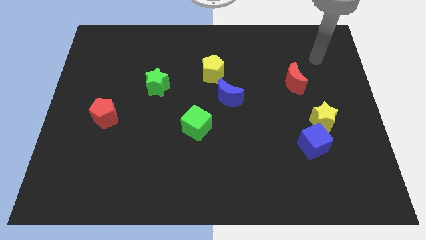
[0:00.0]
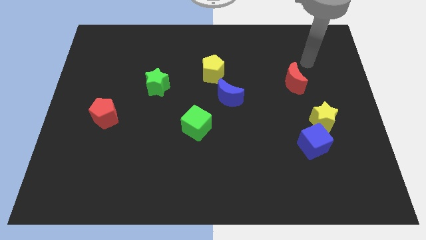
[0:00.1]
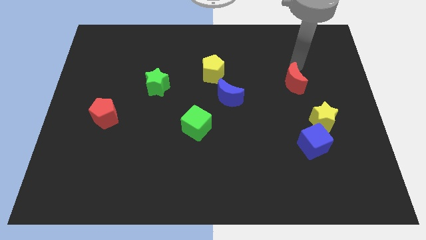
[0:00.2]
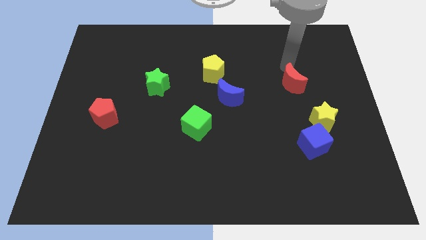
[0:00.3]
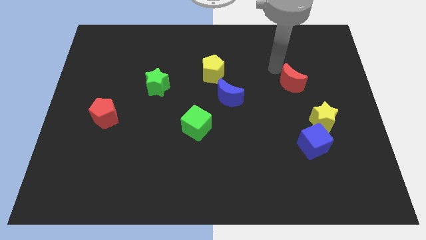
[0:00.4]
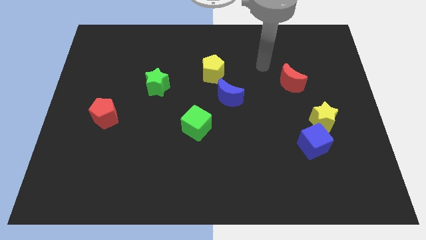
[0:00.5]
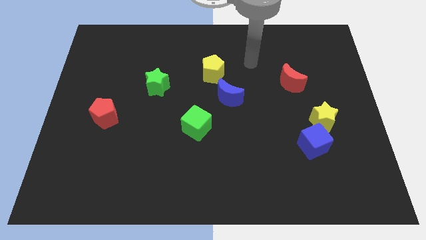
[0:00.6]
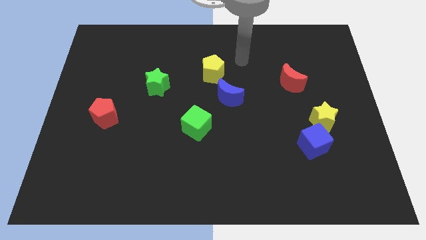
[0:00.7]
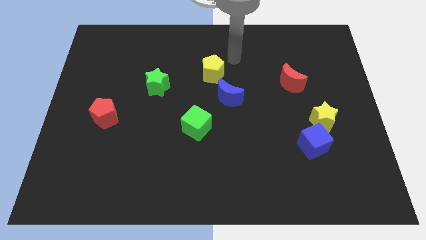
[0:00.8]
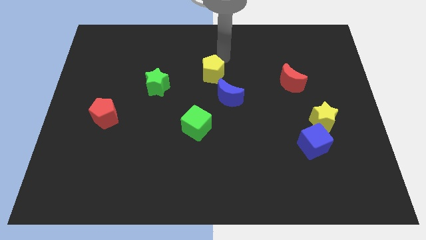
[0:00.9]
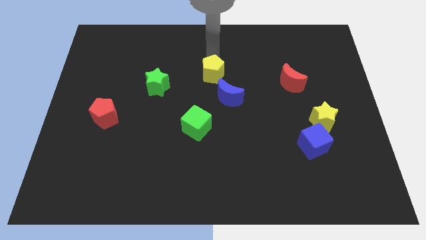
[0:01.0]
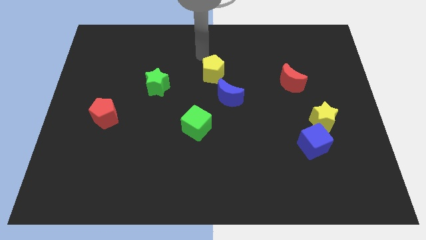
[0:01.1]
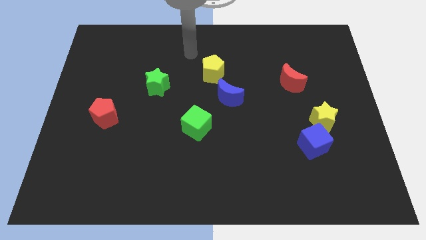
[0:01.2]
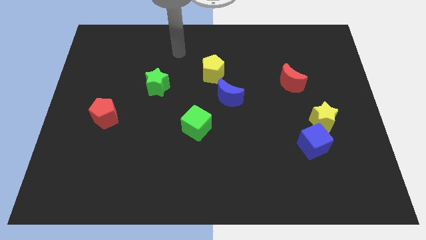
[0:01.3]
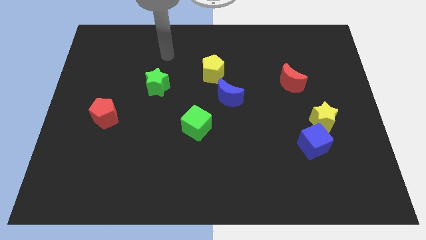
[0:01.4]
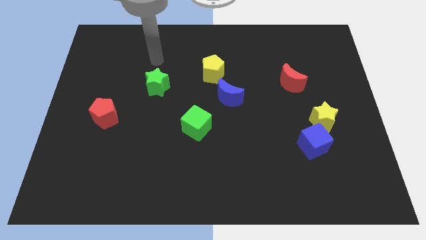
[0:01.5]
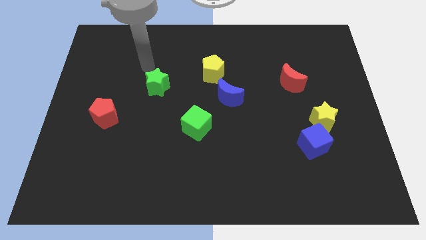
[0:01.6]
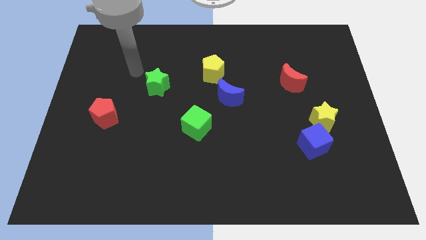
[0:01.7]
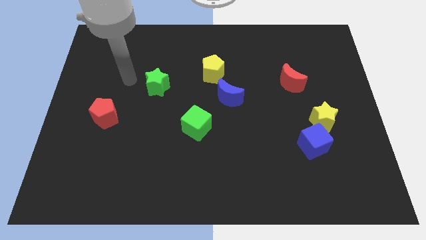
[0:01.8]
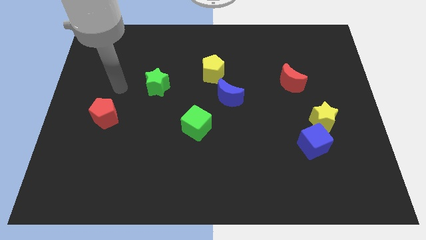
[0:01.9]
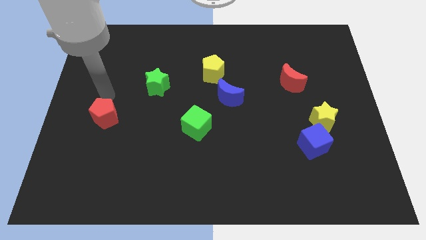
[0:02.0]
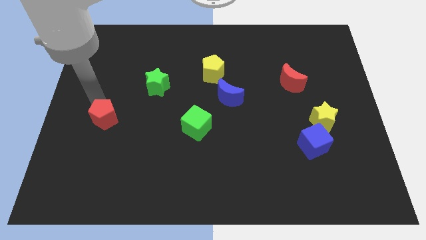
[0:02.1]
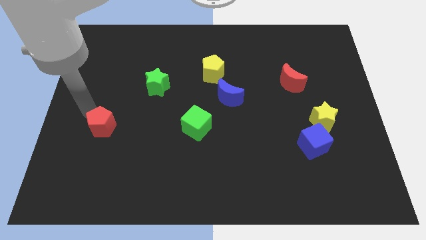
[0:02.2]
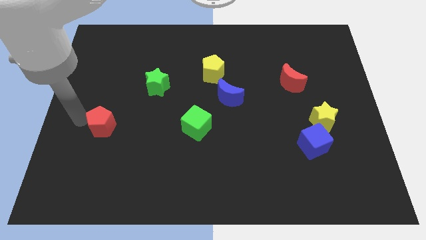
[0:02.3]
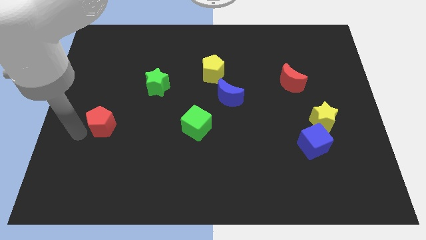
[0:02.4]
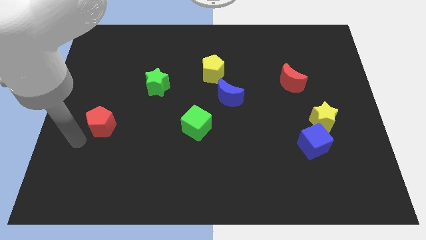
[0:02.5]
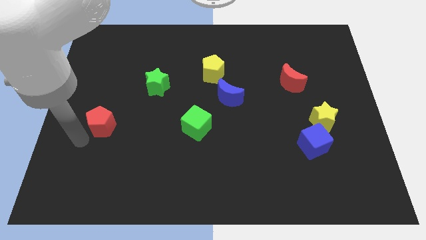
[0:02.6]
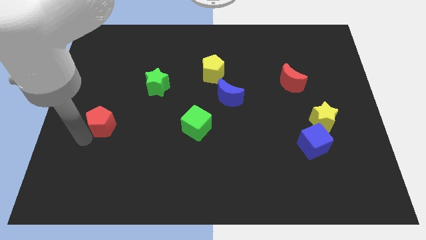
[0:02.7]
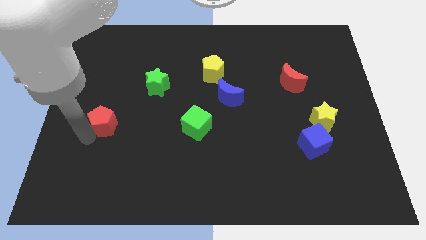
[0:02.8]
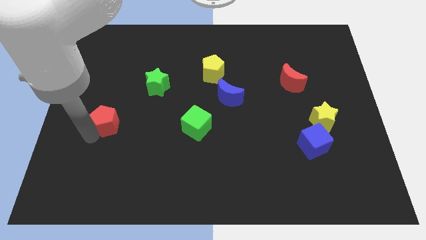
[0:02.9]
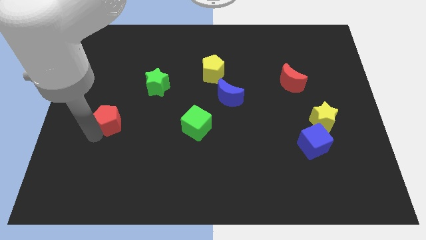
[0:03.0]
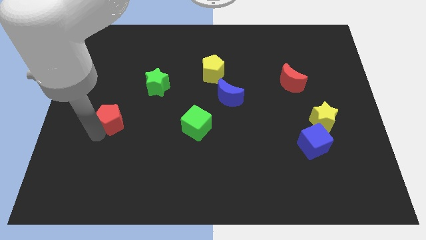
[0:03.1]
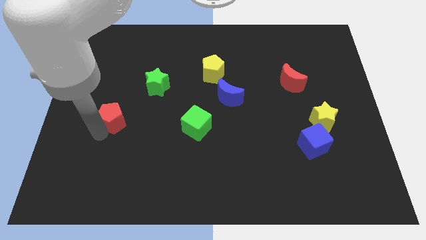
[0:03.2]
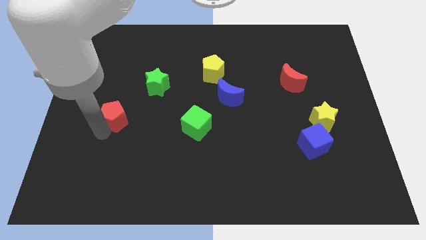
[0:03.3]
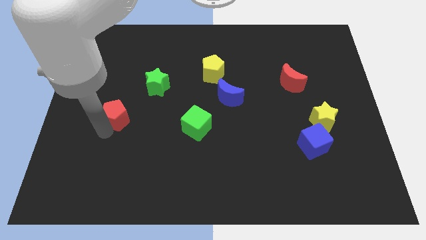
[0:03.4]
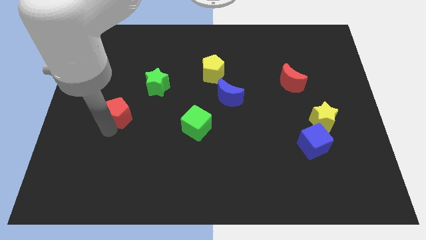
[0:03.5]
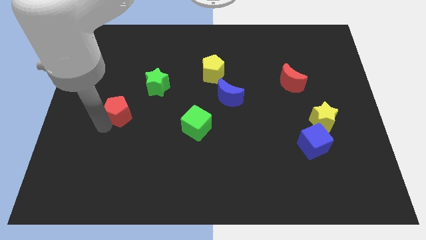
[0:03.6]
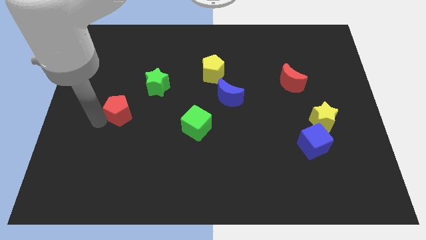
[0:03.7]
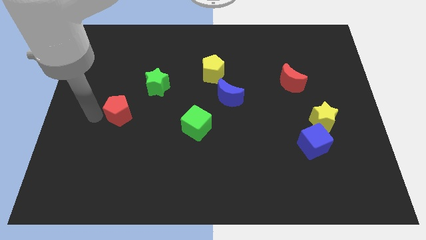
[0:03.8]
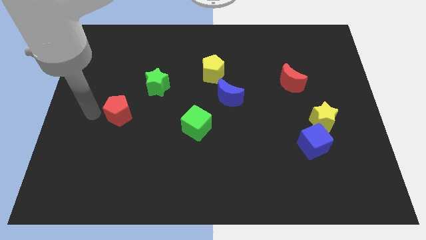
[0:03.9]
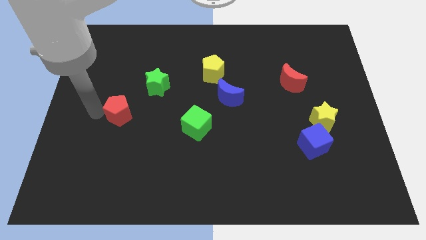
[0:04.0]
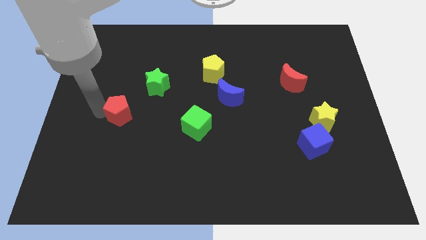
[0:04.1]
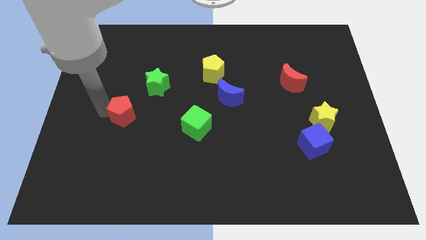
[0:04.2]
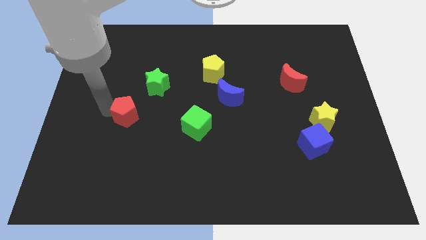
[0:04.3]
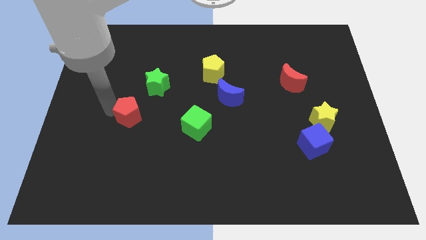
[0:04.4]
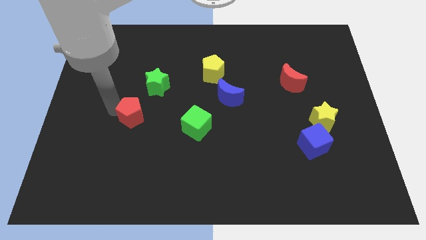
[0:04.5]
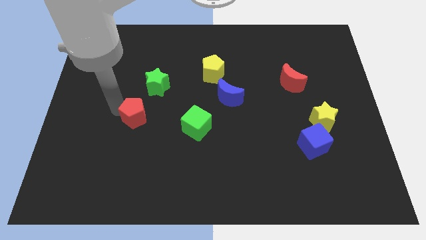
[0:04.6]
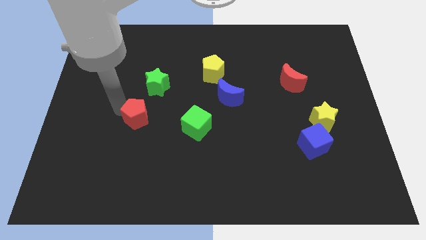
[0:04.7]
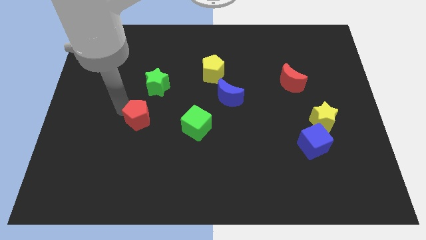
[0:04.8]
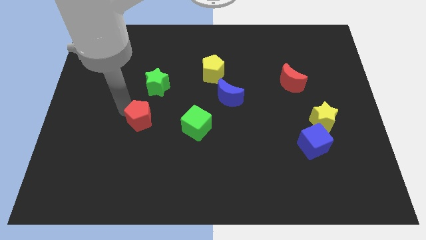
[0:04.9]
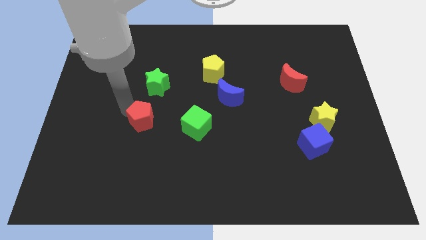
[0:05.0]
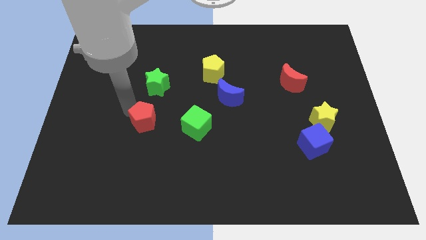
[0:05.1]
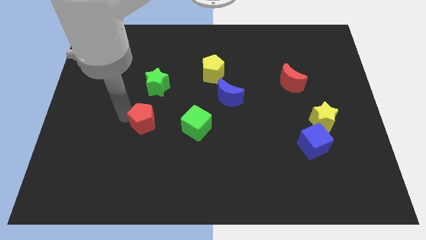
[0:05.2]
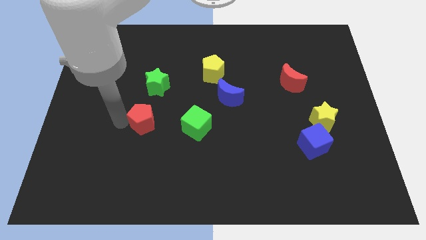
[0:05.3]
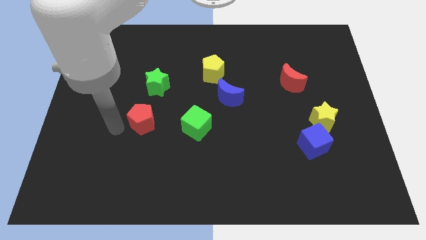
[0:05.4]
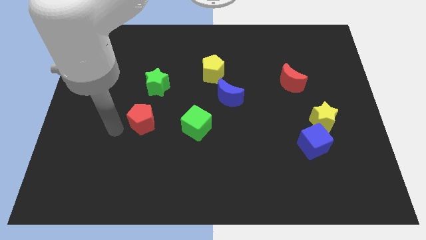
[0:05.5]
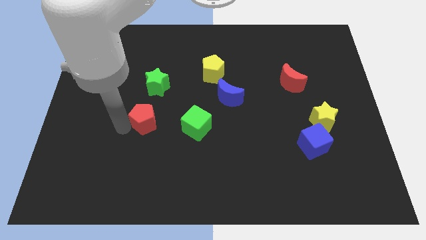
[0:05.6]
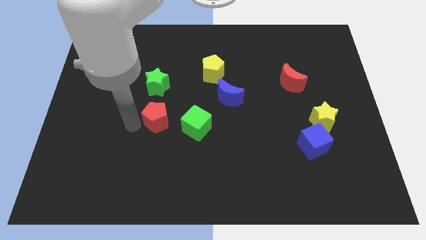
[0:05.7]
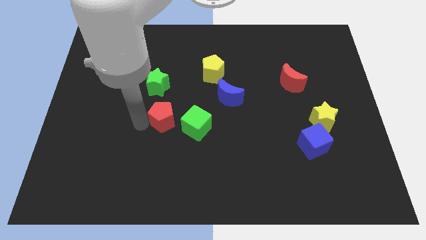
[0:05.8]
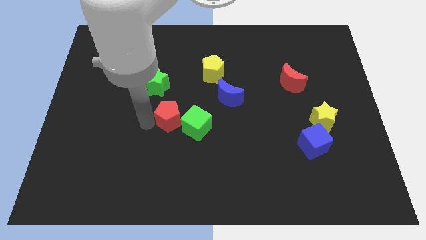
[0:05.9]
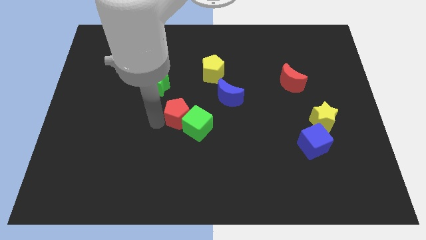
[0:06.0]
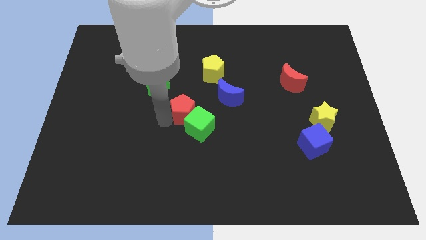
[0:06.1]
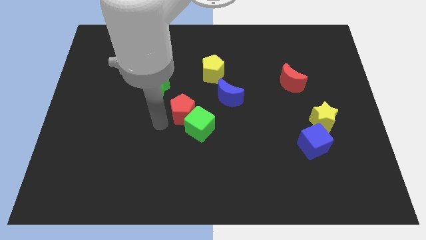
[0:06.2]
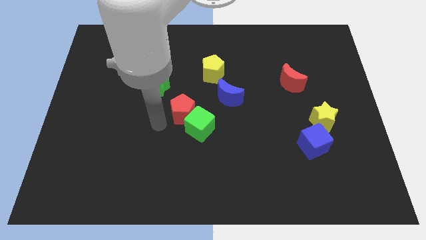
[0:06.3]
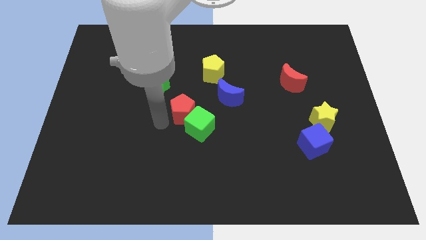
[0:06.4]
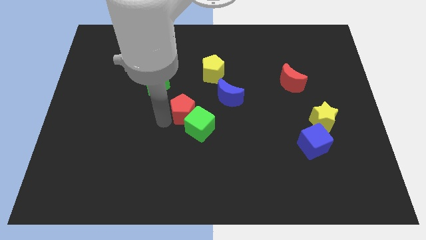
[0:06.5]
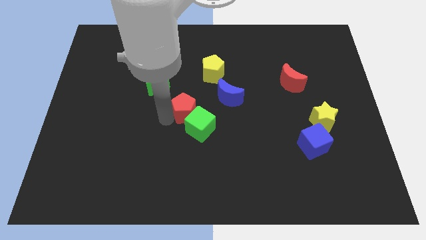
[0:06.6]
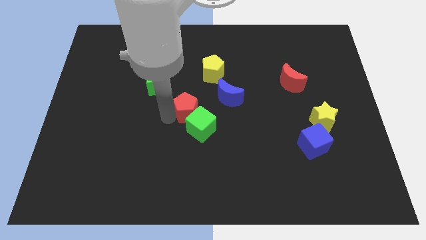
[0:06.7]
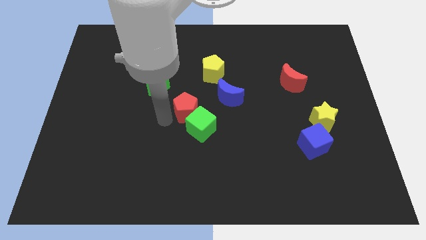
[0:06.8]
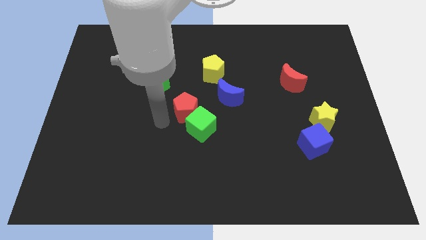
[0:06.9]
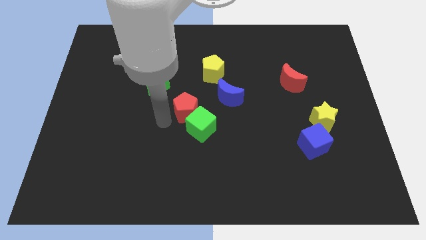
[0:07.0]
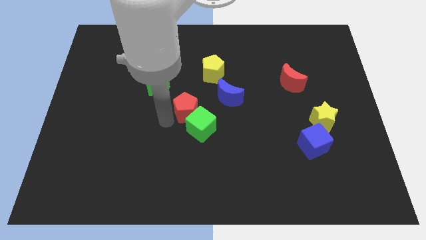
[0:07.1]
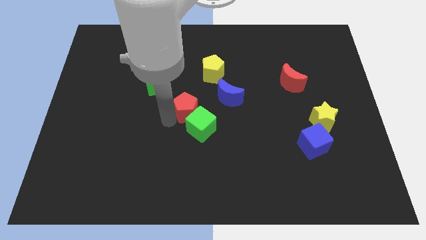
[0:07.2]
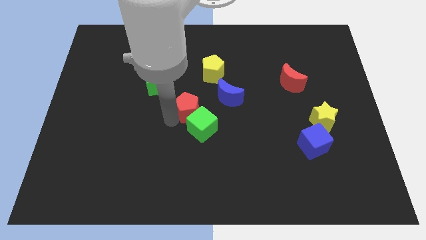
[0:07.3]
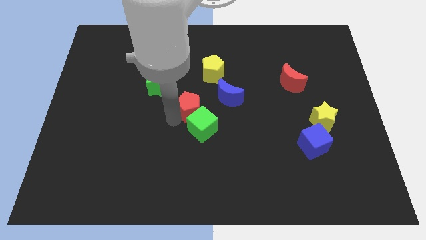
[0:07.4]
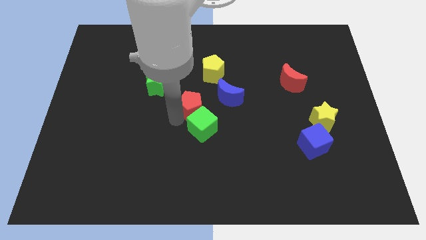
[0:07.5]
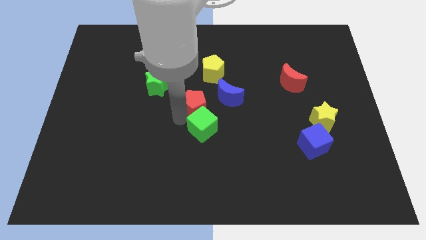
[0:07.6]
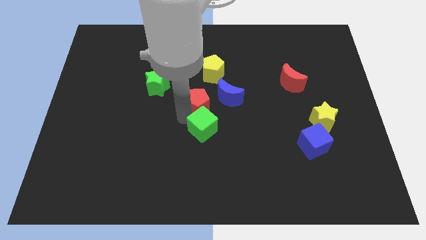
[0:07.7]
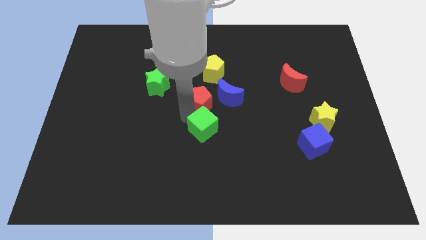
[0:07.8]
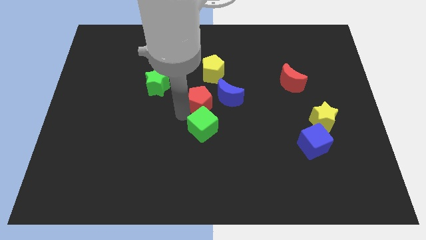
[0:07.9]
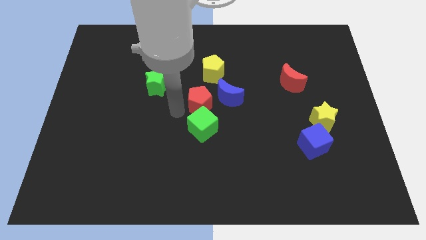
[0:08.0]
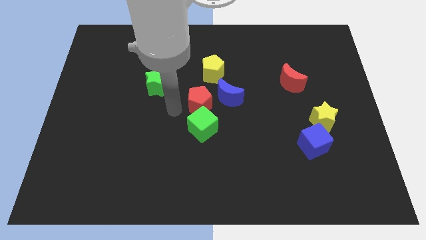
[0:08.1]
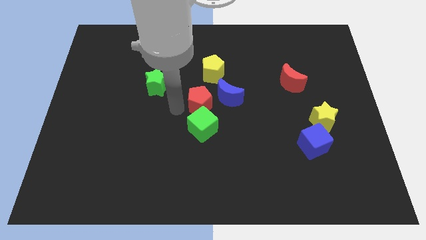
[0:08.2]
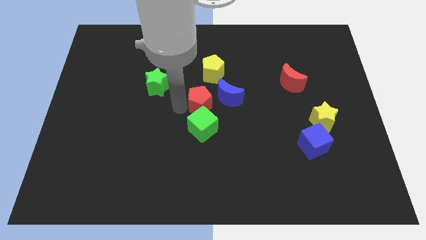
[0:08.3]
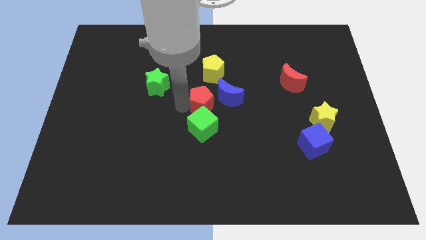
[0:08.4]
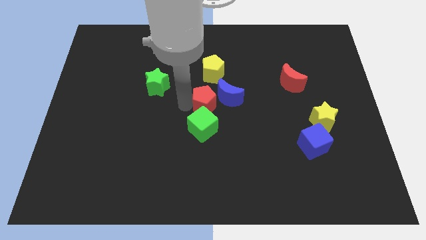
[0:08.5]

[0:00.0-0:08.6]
slide the red pentagon towards the blue moon
